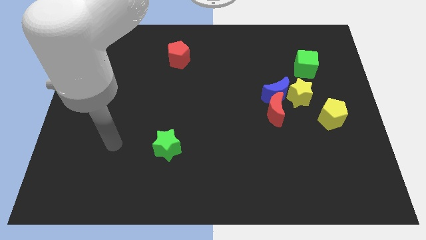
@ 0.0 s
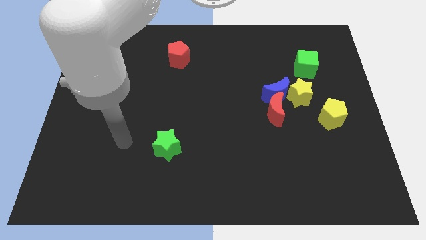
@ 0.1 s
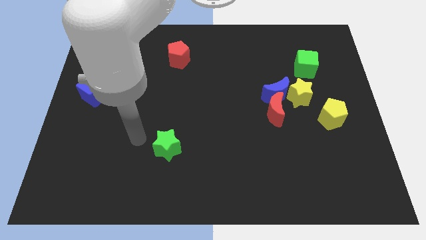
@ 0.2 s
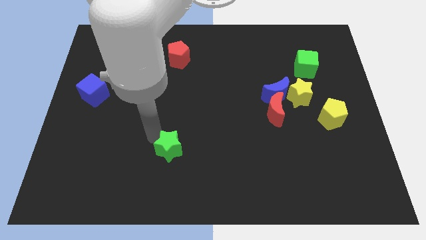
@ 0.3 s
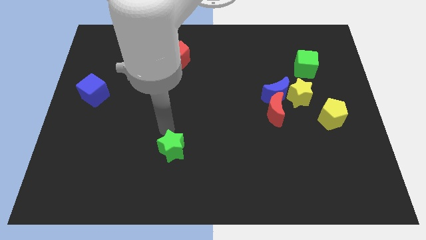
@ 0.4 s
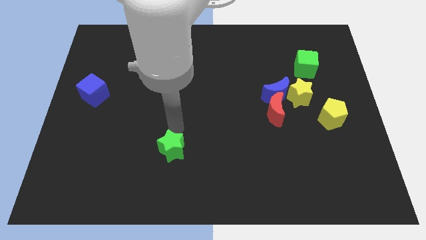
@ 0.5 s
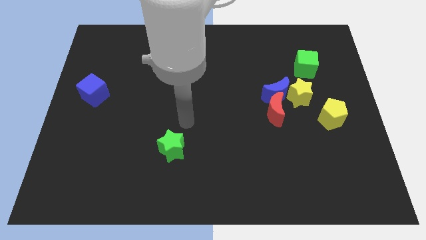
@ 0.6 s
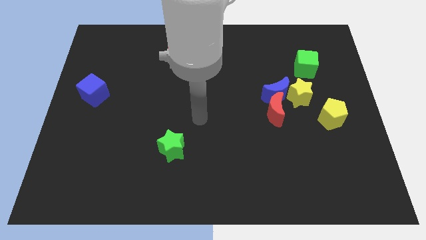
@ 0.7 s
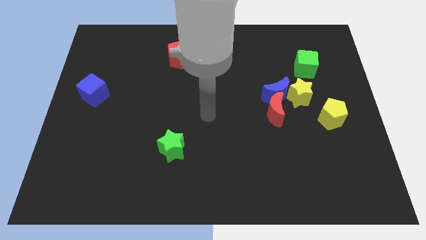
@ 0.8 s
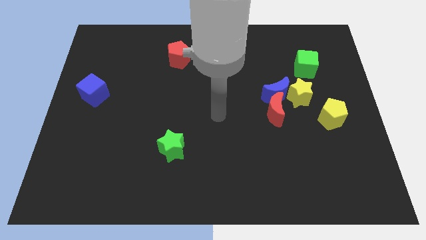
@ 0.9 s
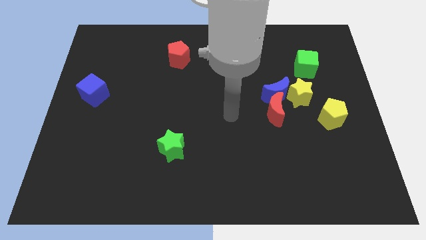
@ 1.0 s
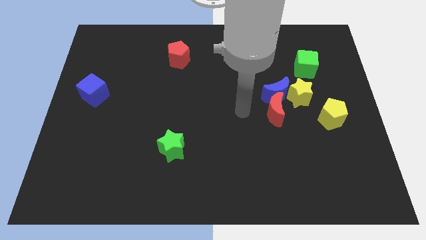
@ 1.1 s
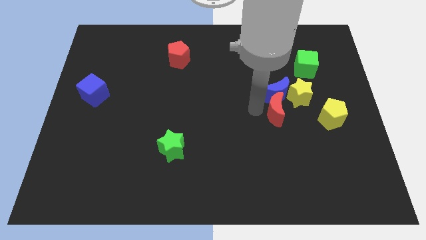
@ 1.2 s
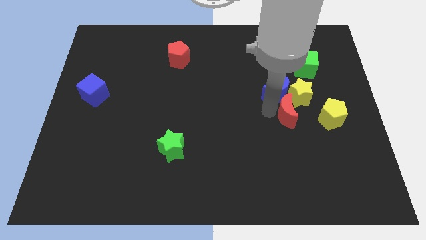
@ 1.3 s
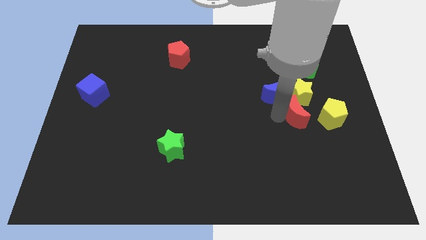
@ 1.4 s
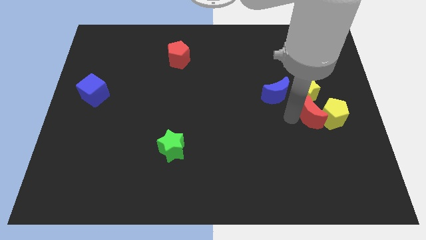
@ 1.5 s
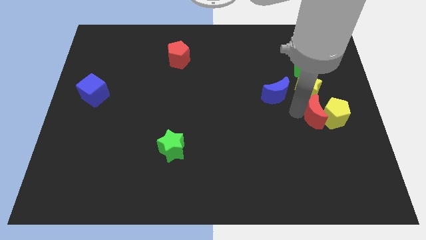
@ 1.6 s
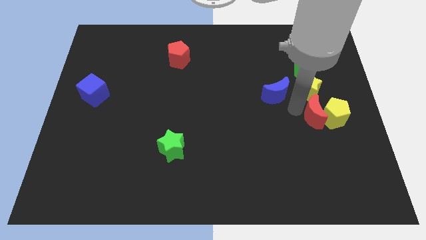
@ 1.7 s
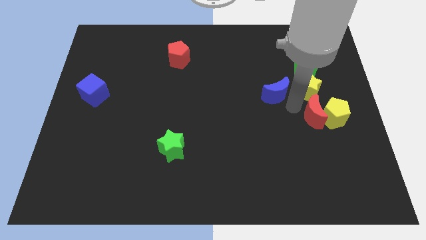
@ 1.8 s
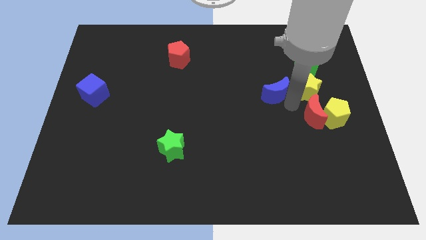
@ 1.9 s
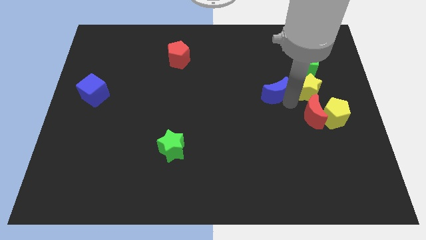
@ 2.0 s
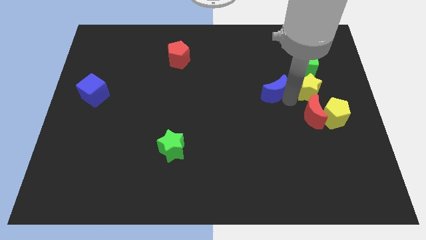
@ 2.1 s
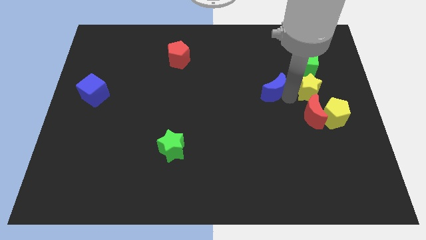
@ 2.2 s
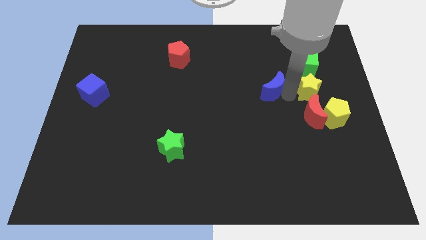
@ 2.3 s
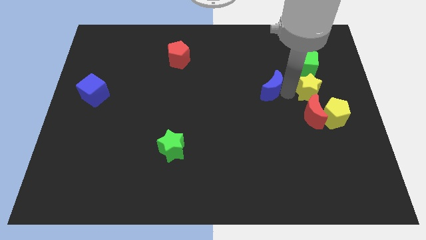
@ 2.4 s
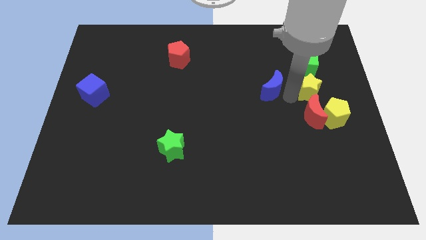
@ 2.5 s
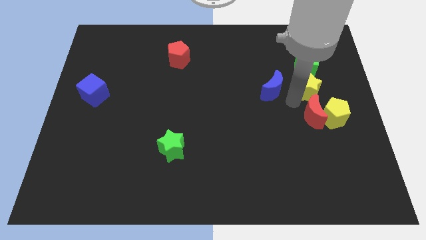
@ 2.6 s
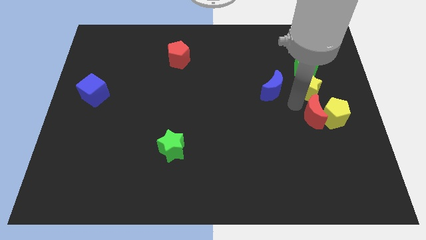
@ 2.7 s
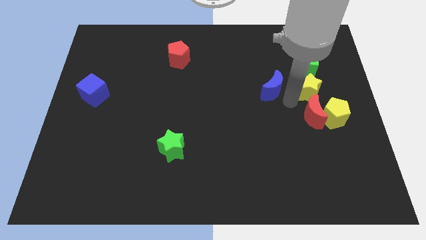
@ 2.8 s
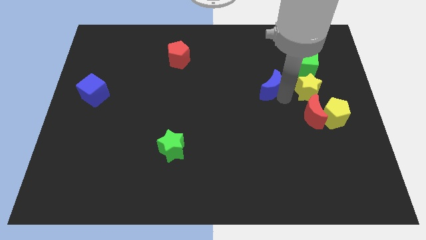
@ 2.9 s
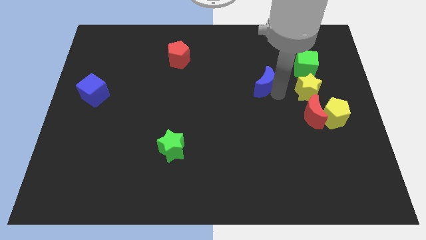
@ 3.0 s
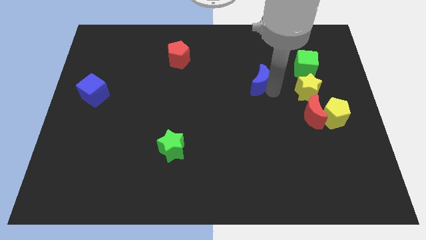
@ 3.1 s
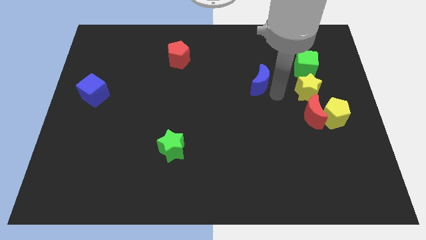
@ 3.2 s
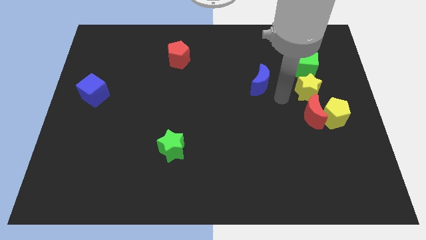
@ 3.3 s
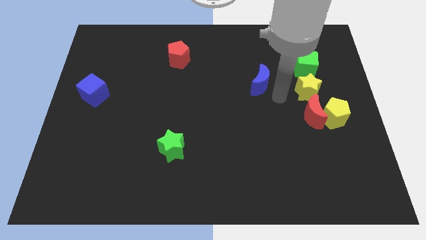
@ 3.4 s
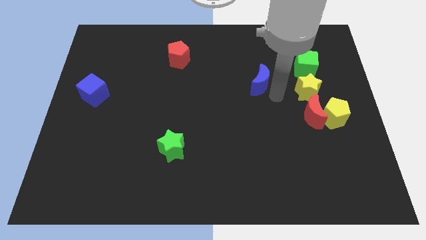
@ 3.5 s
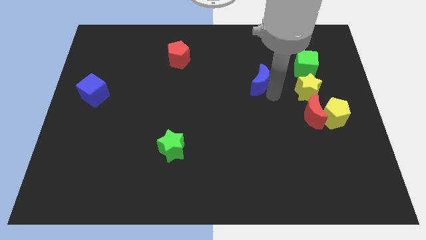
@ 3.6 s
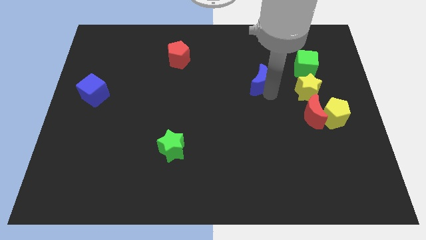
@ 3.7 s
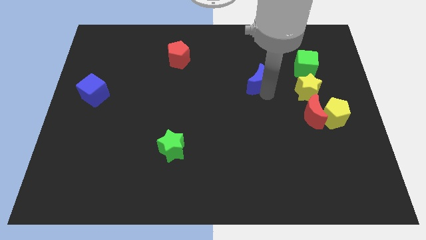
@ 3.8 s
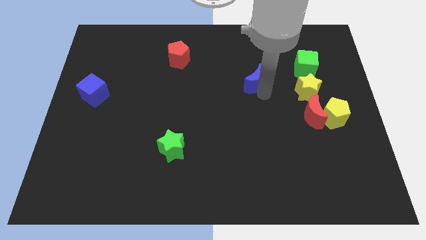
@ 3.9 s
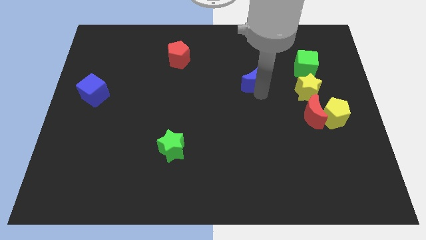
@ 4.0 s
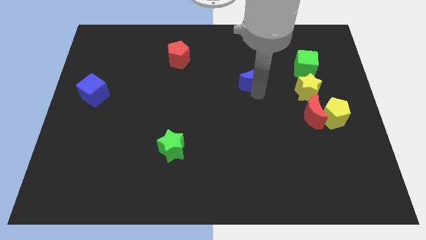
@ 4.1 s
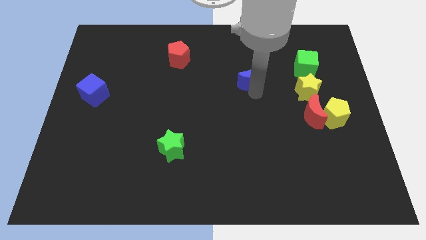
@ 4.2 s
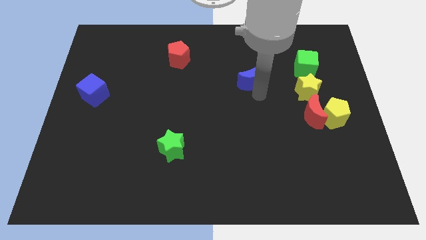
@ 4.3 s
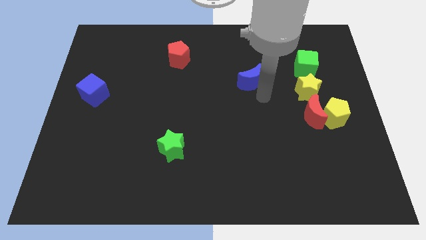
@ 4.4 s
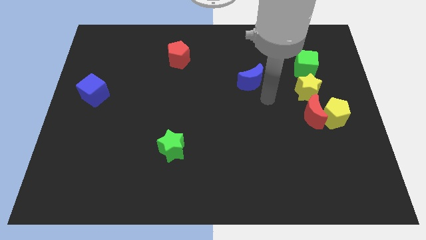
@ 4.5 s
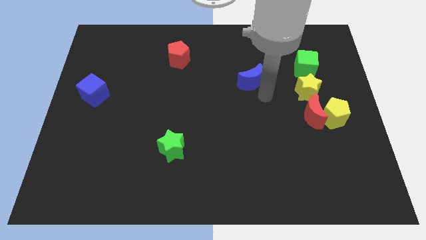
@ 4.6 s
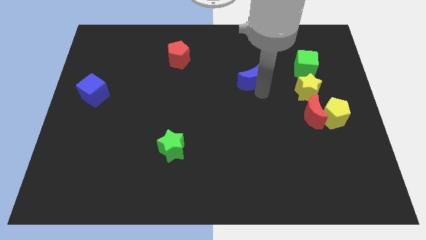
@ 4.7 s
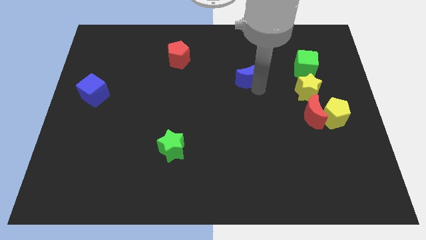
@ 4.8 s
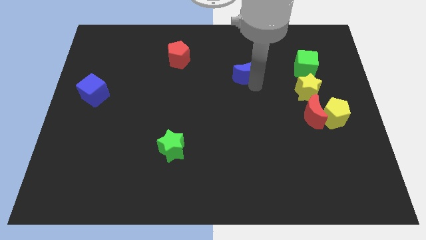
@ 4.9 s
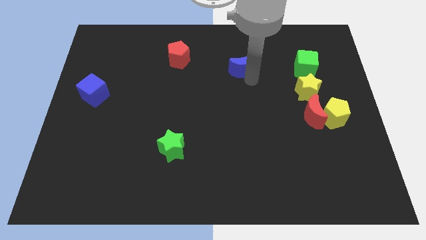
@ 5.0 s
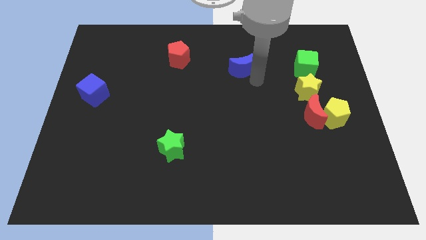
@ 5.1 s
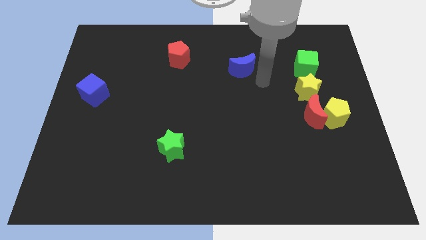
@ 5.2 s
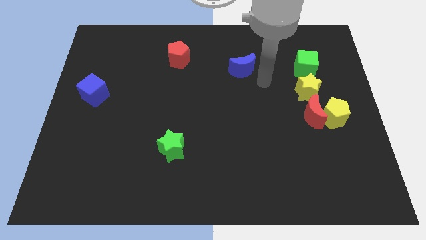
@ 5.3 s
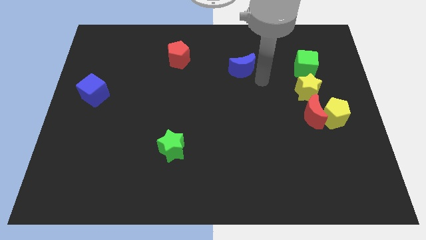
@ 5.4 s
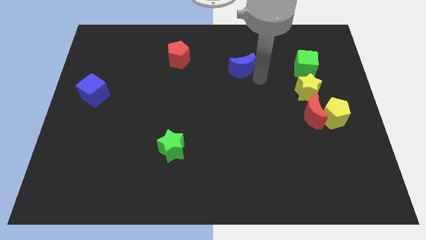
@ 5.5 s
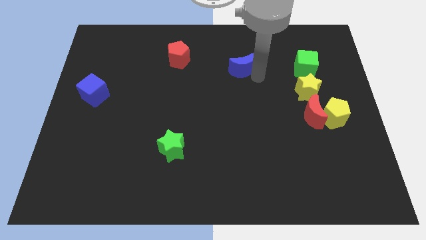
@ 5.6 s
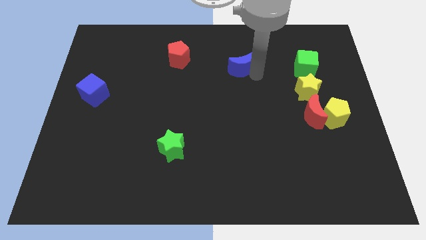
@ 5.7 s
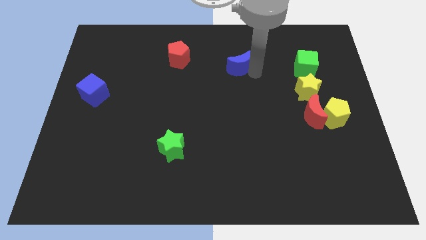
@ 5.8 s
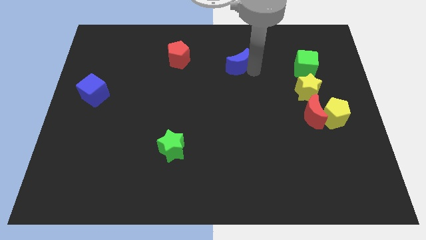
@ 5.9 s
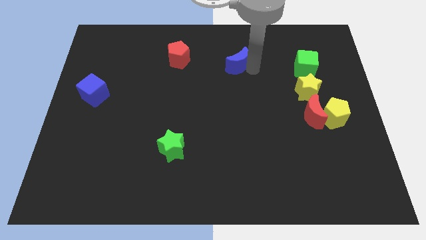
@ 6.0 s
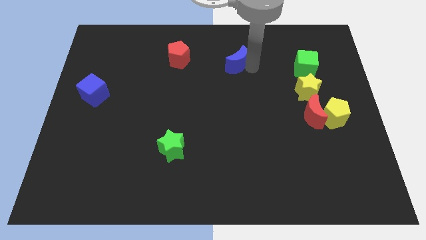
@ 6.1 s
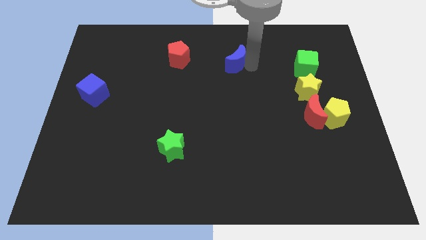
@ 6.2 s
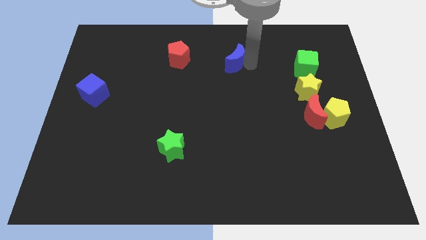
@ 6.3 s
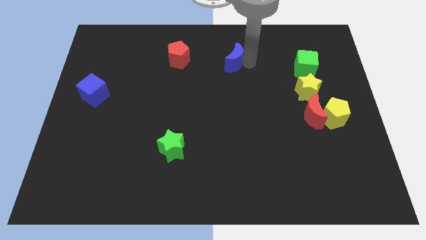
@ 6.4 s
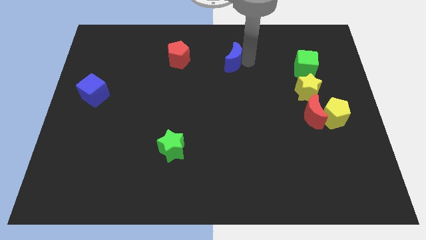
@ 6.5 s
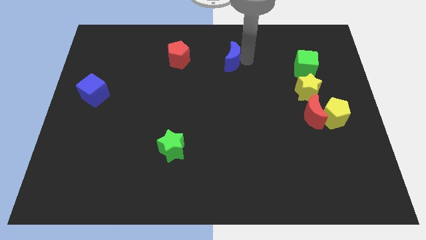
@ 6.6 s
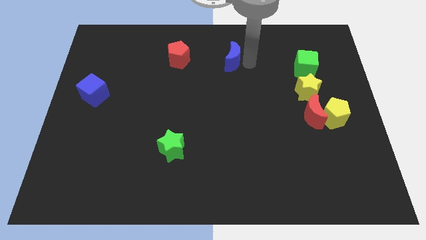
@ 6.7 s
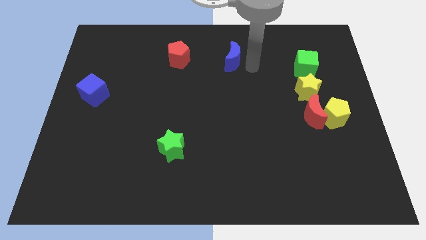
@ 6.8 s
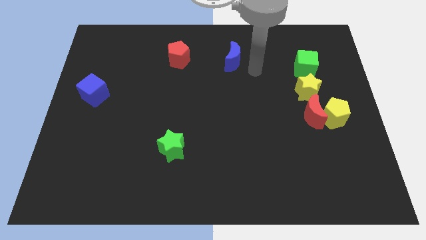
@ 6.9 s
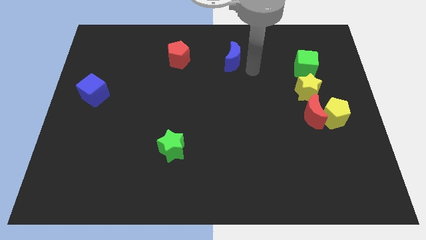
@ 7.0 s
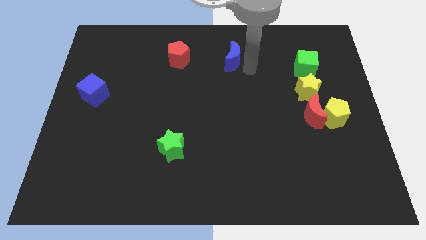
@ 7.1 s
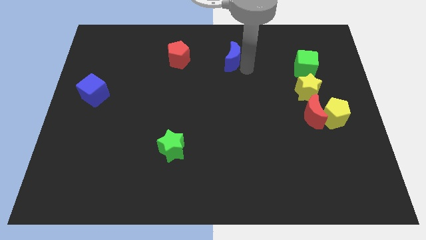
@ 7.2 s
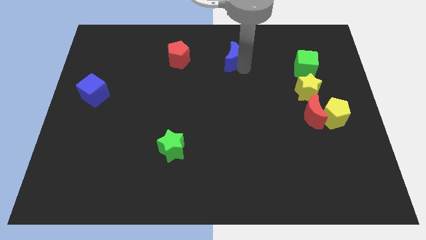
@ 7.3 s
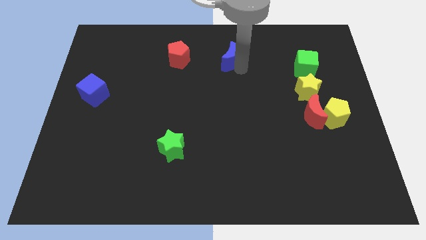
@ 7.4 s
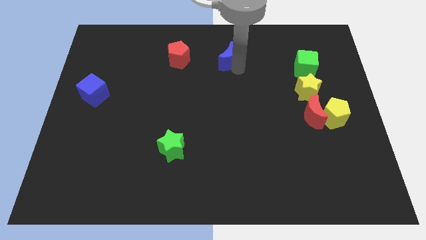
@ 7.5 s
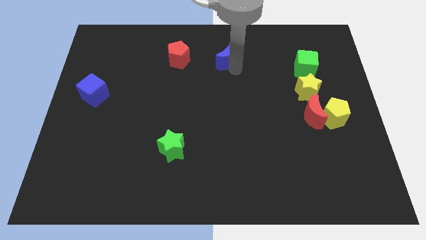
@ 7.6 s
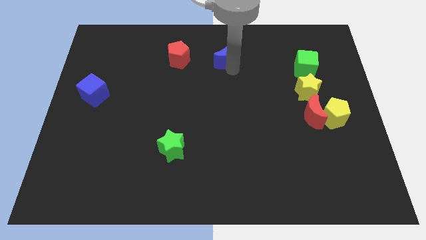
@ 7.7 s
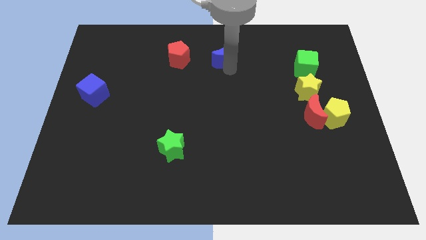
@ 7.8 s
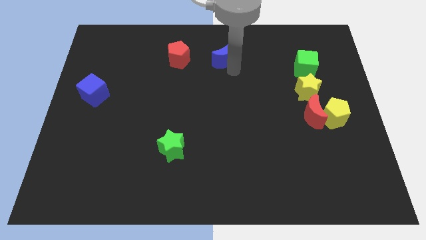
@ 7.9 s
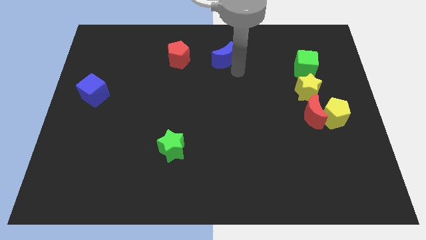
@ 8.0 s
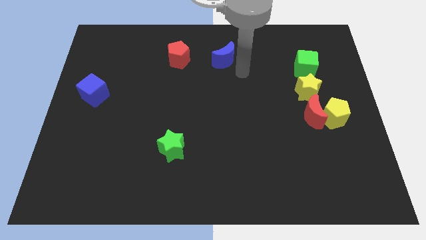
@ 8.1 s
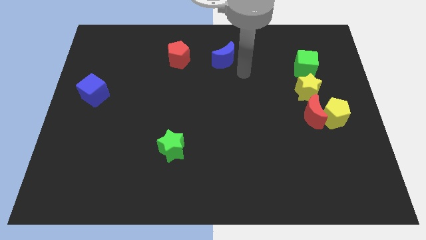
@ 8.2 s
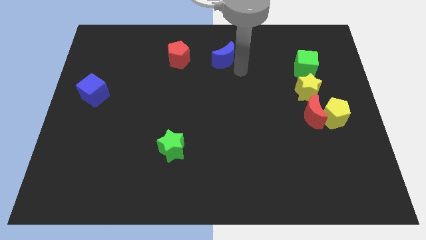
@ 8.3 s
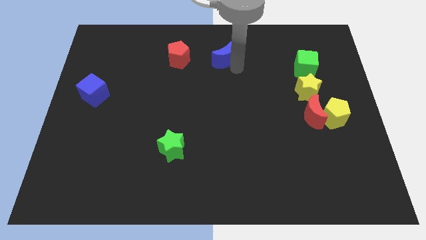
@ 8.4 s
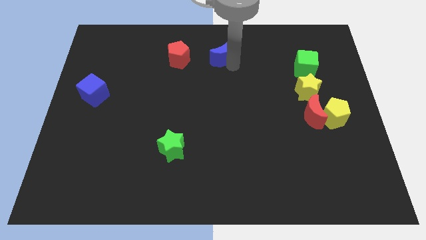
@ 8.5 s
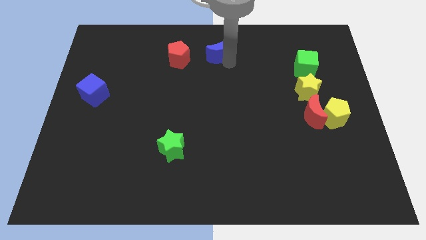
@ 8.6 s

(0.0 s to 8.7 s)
push the blue moon to the top side
